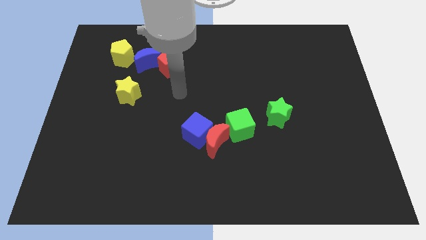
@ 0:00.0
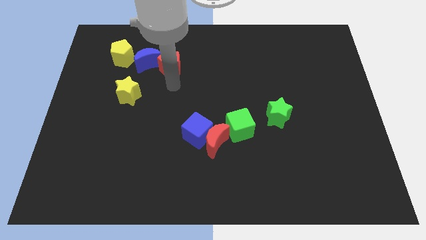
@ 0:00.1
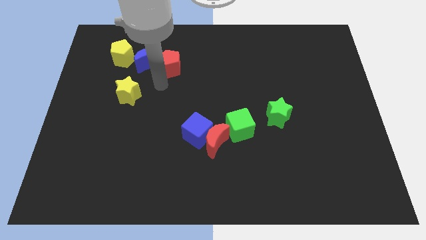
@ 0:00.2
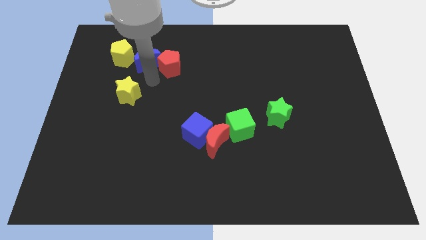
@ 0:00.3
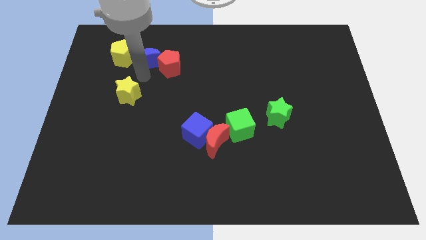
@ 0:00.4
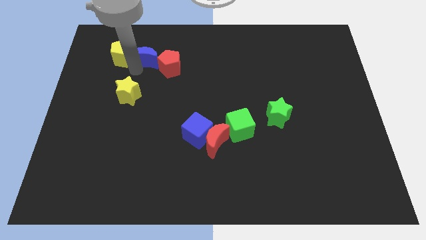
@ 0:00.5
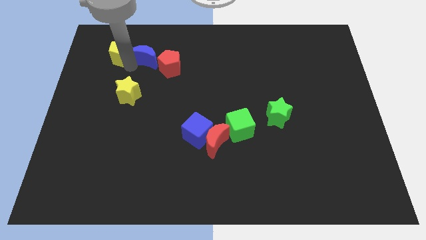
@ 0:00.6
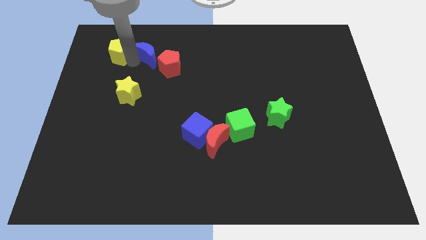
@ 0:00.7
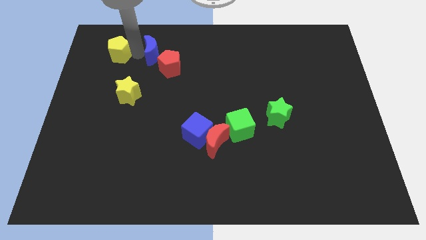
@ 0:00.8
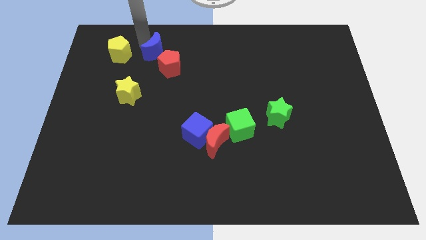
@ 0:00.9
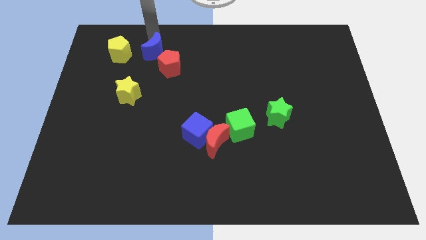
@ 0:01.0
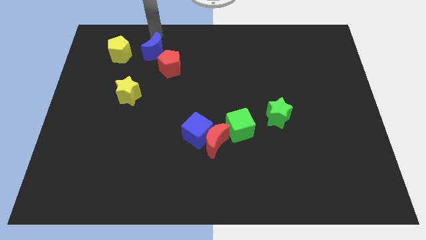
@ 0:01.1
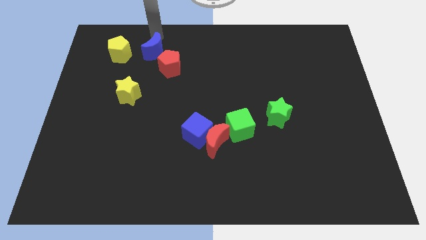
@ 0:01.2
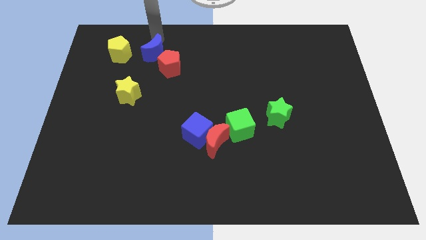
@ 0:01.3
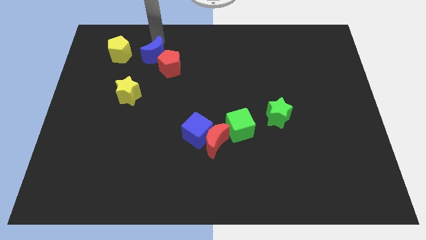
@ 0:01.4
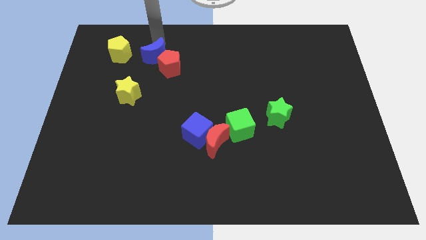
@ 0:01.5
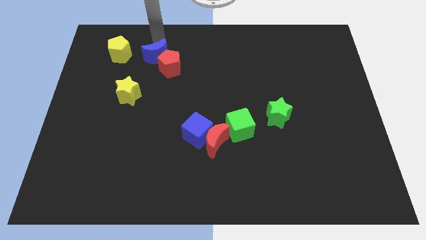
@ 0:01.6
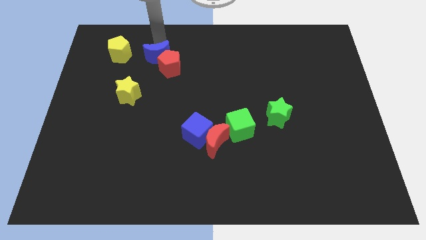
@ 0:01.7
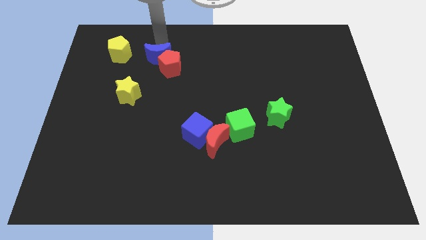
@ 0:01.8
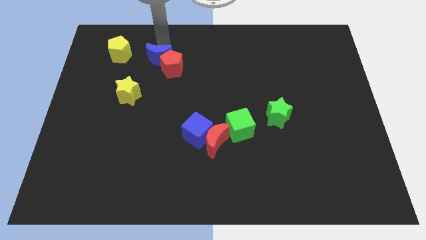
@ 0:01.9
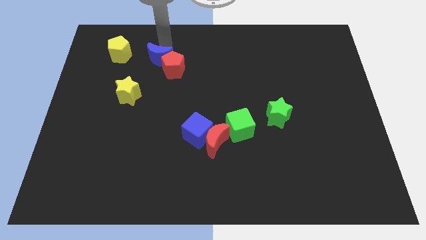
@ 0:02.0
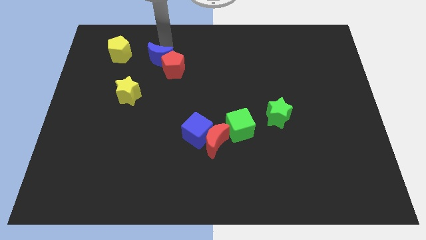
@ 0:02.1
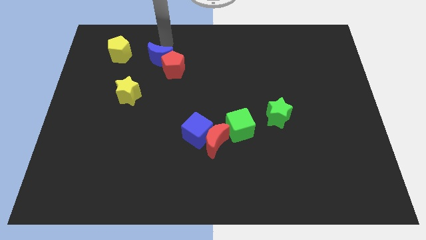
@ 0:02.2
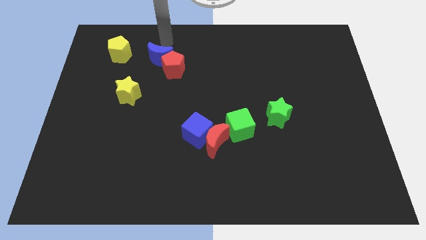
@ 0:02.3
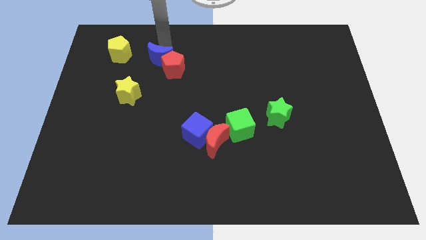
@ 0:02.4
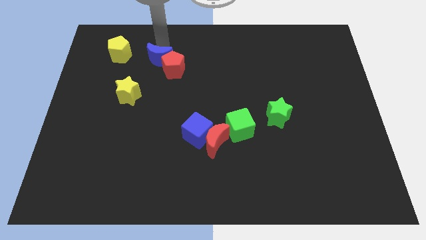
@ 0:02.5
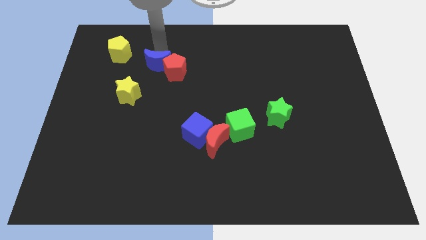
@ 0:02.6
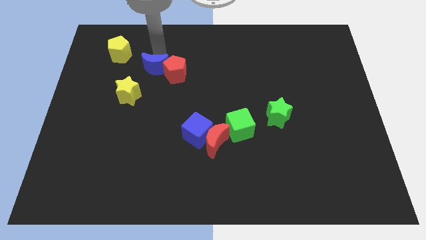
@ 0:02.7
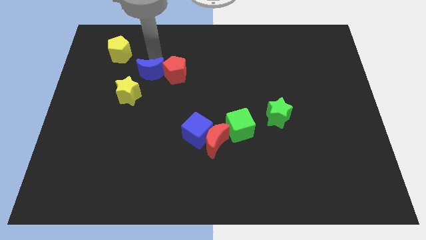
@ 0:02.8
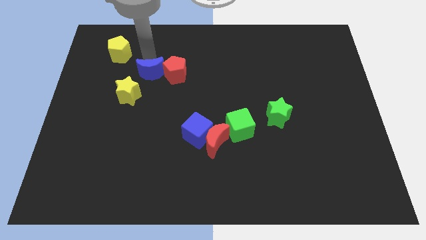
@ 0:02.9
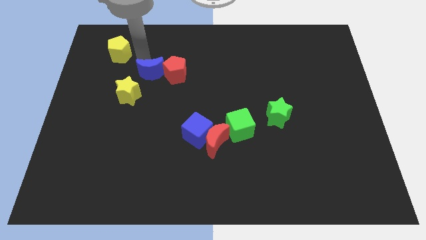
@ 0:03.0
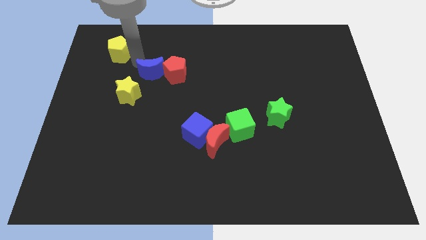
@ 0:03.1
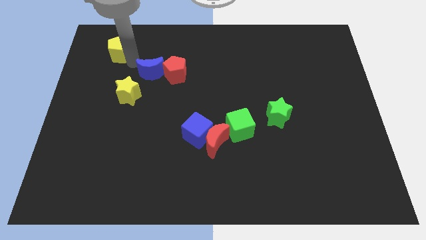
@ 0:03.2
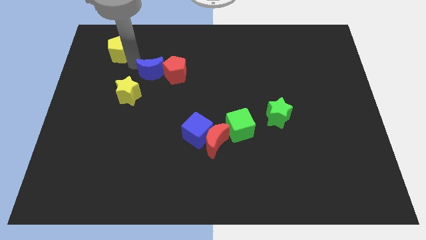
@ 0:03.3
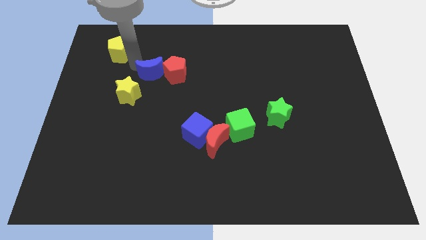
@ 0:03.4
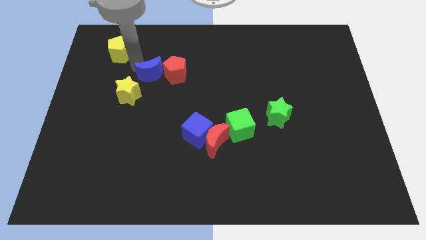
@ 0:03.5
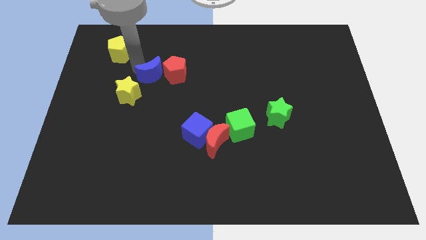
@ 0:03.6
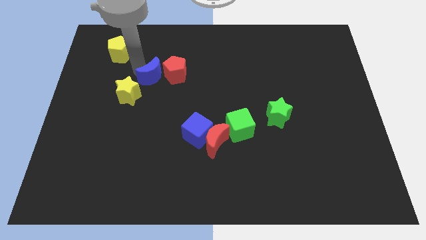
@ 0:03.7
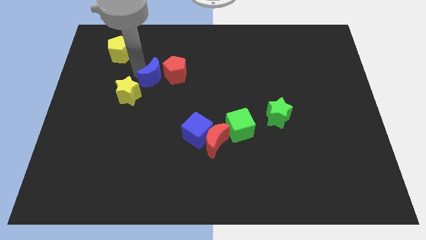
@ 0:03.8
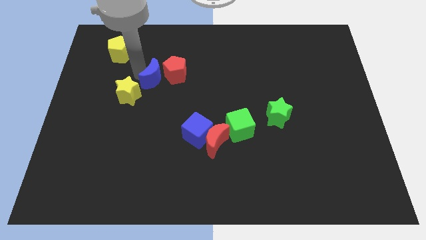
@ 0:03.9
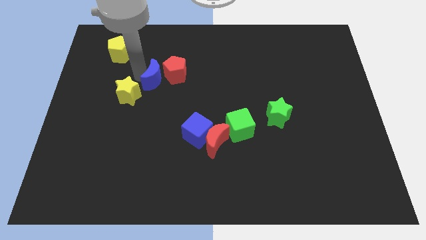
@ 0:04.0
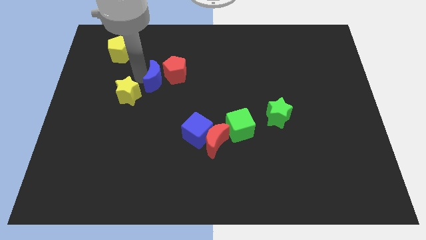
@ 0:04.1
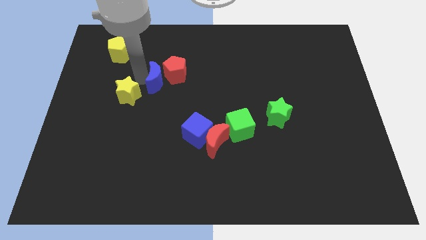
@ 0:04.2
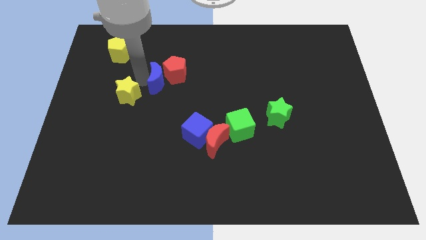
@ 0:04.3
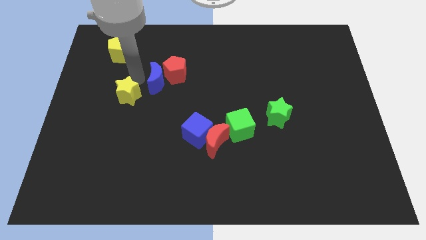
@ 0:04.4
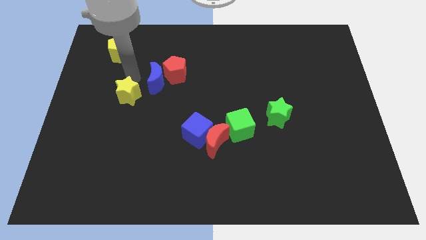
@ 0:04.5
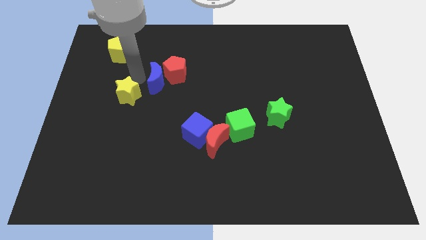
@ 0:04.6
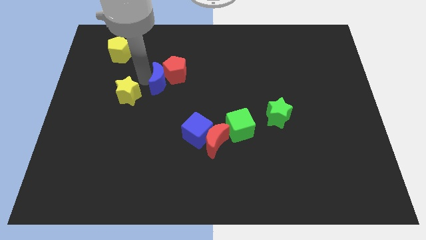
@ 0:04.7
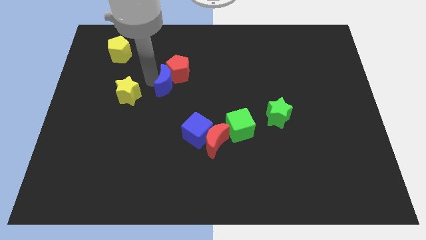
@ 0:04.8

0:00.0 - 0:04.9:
slide the blue moon to the middle of the board

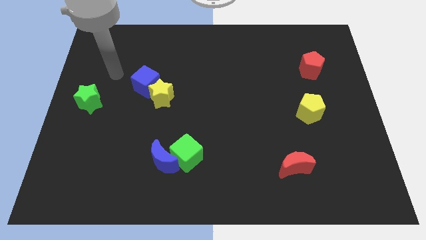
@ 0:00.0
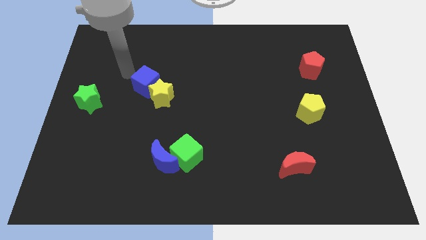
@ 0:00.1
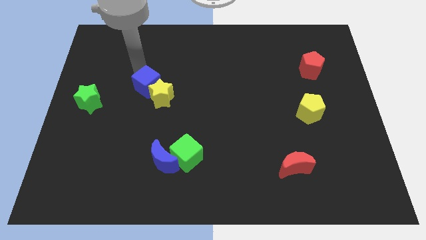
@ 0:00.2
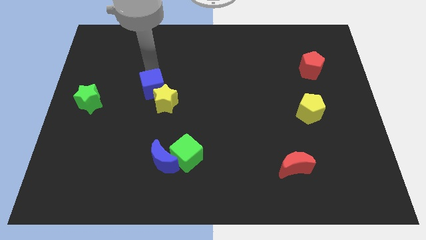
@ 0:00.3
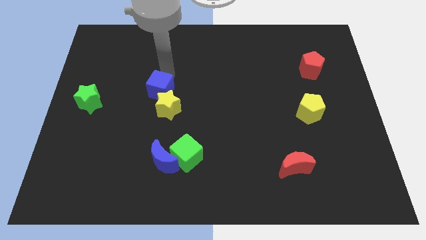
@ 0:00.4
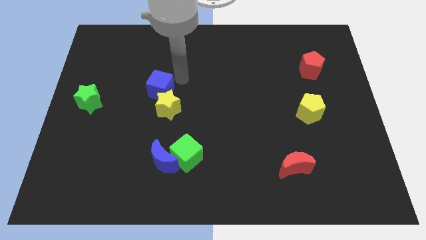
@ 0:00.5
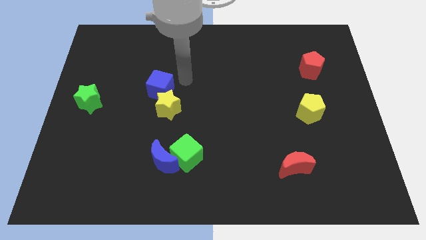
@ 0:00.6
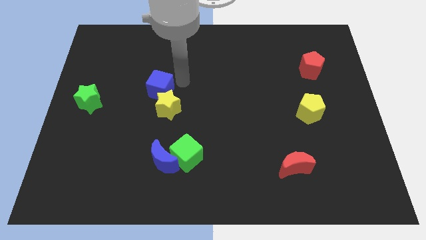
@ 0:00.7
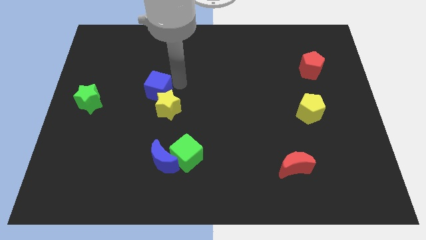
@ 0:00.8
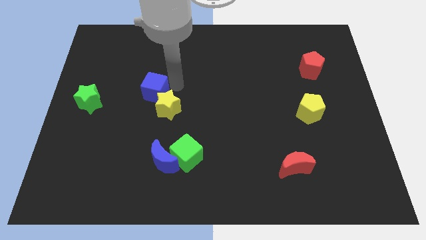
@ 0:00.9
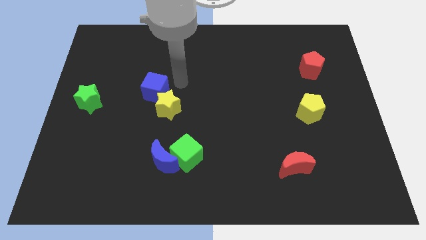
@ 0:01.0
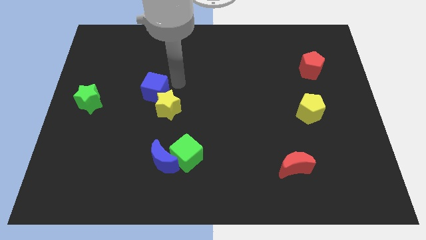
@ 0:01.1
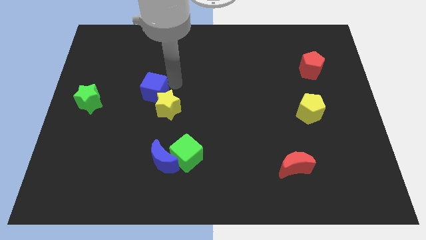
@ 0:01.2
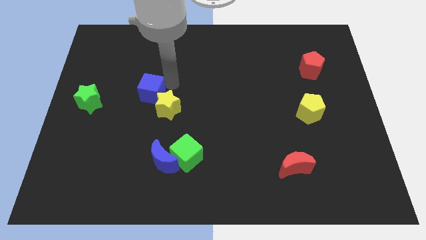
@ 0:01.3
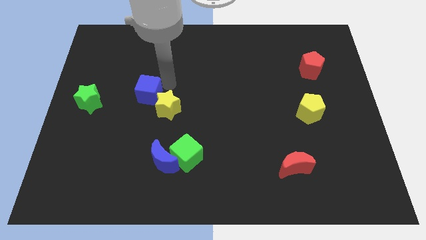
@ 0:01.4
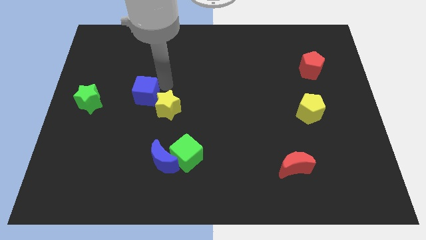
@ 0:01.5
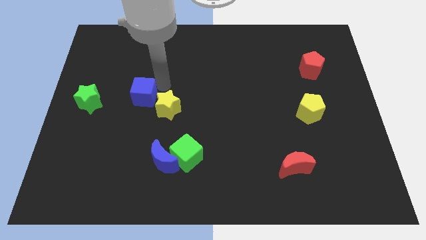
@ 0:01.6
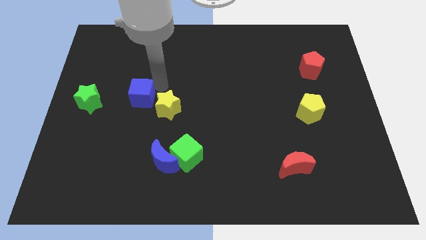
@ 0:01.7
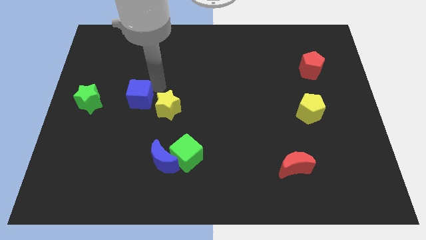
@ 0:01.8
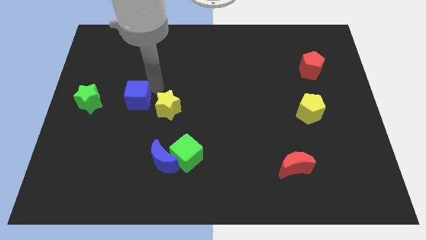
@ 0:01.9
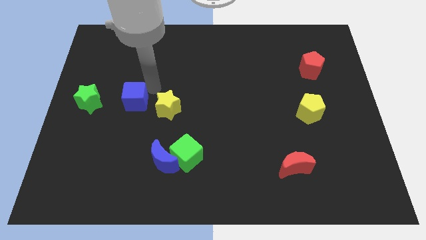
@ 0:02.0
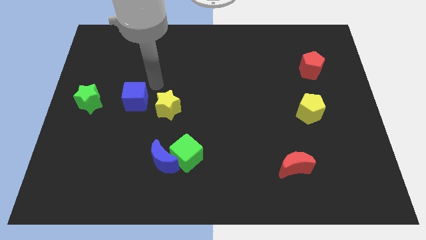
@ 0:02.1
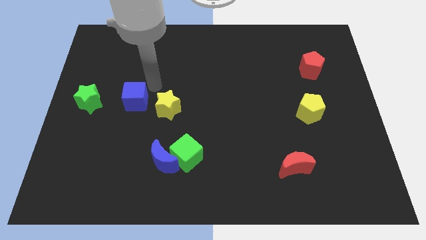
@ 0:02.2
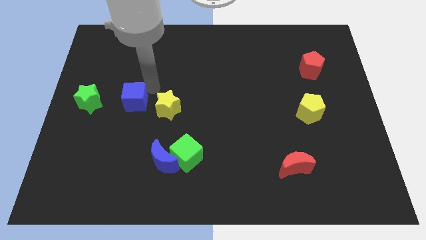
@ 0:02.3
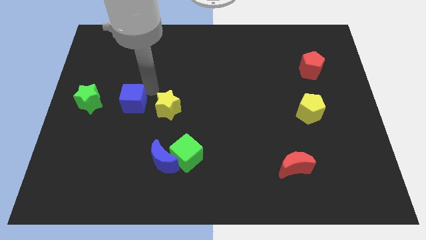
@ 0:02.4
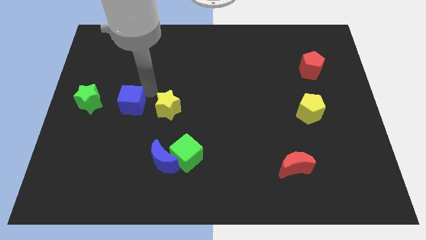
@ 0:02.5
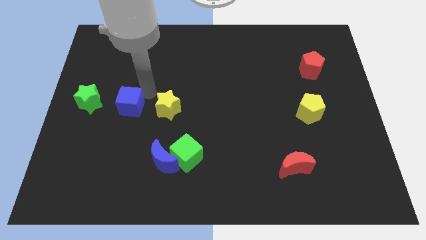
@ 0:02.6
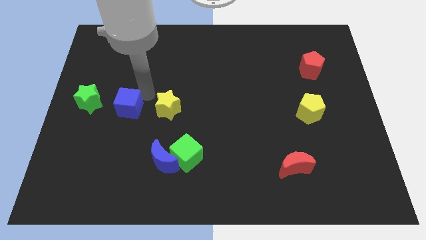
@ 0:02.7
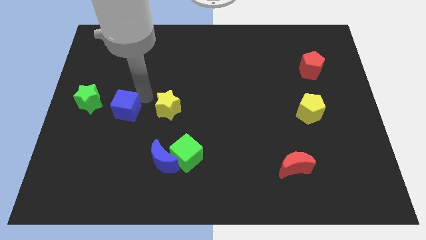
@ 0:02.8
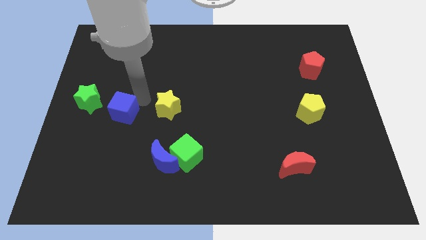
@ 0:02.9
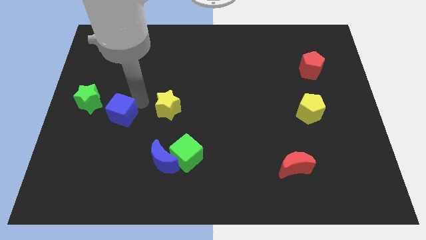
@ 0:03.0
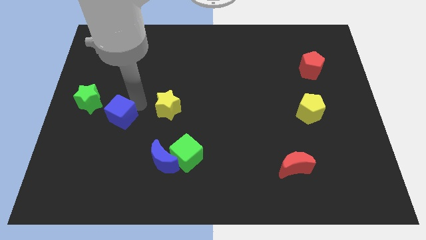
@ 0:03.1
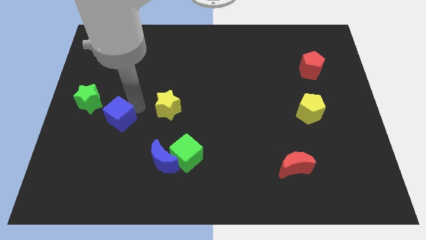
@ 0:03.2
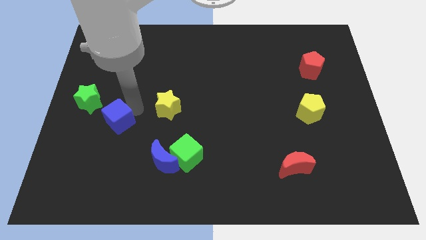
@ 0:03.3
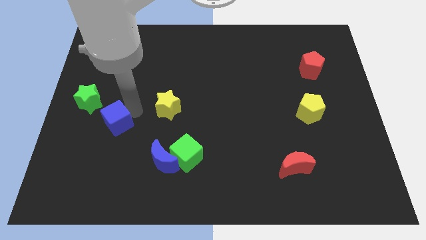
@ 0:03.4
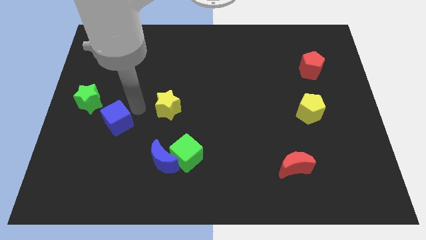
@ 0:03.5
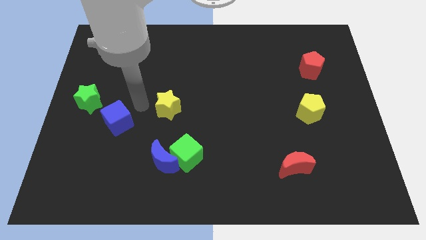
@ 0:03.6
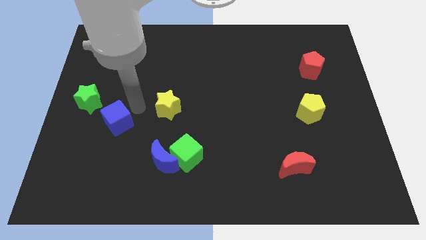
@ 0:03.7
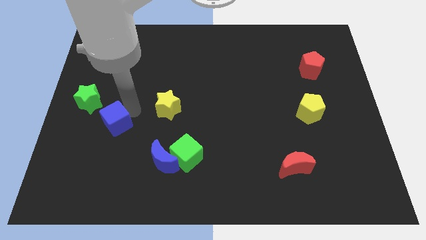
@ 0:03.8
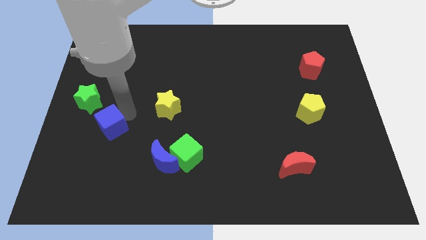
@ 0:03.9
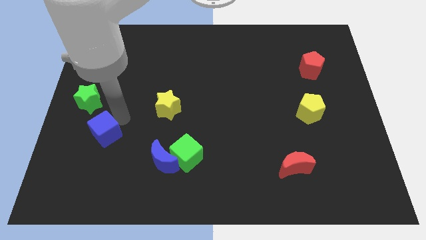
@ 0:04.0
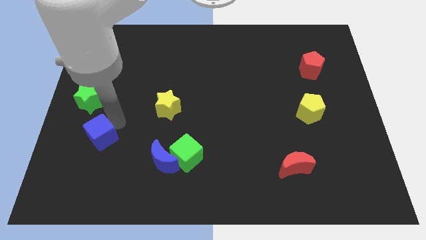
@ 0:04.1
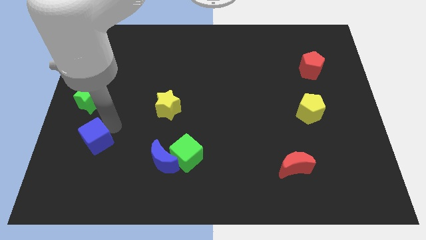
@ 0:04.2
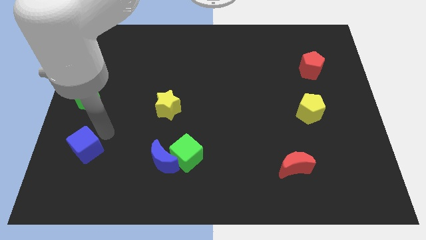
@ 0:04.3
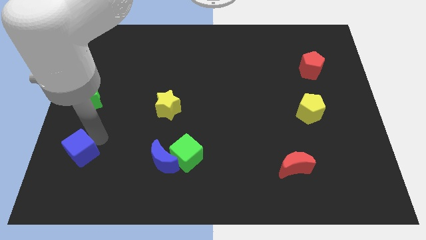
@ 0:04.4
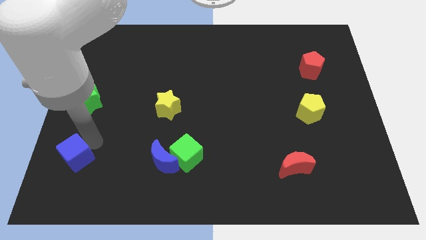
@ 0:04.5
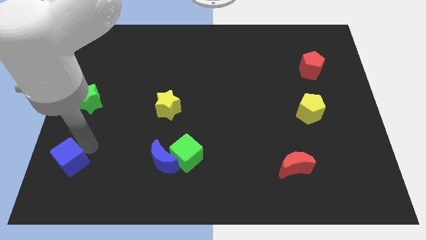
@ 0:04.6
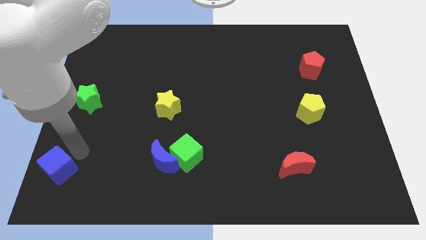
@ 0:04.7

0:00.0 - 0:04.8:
slide the blue cube to the bottom left corner
